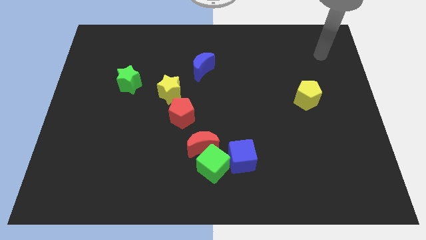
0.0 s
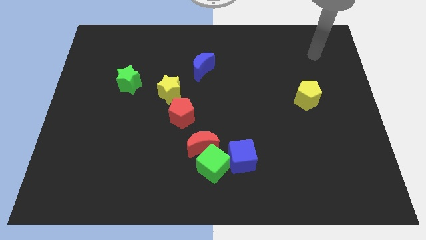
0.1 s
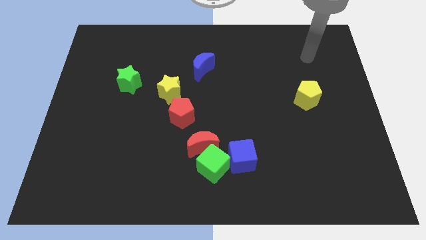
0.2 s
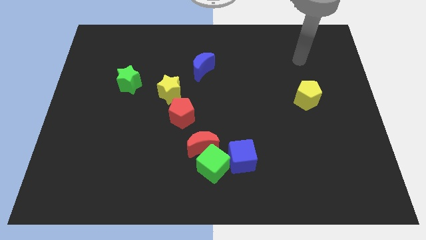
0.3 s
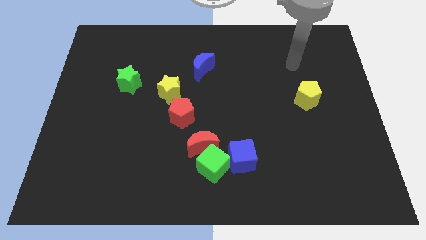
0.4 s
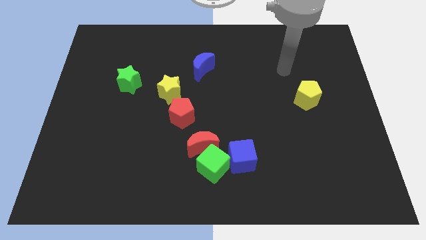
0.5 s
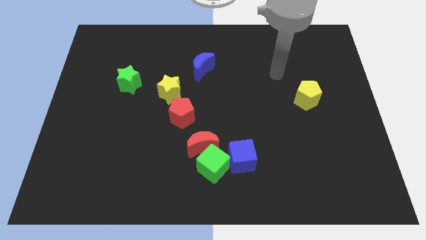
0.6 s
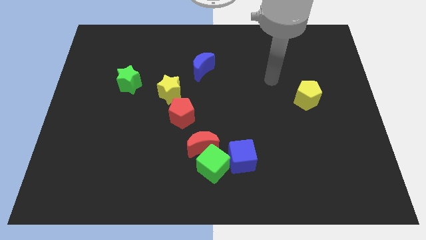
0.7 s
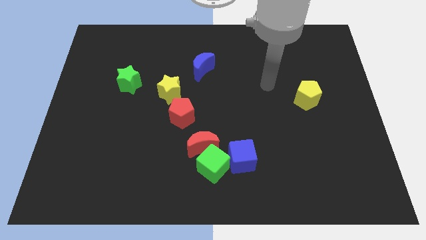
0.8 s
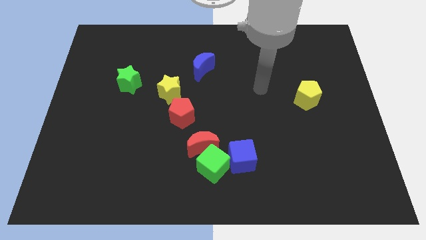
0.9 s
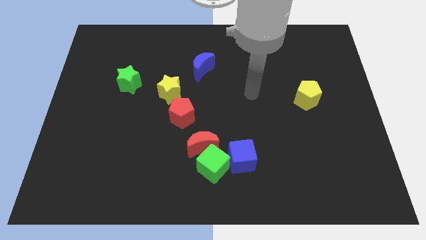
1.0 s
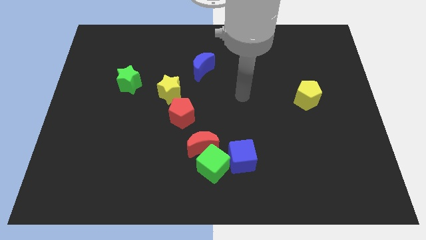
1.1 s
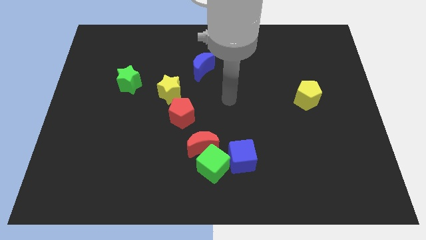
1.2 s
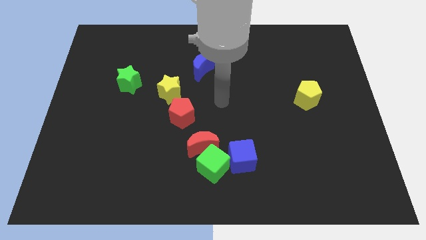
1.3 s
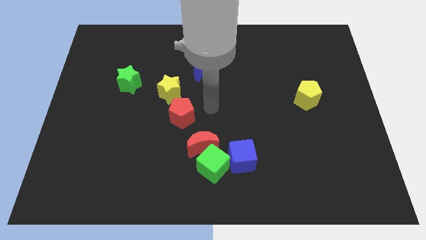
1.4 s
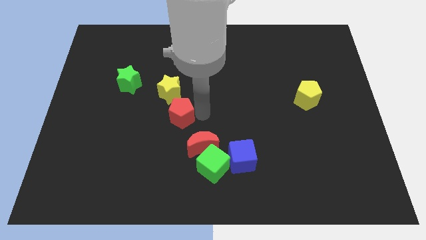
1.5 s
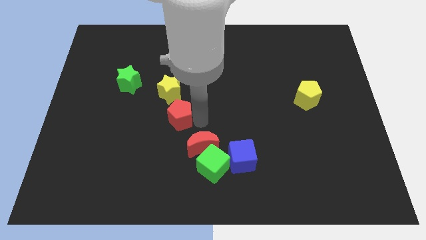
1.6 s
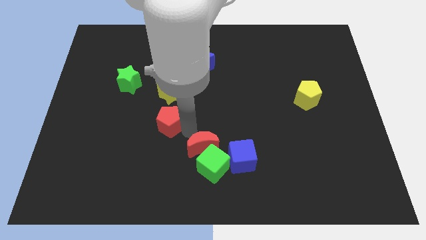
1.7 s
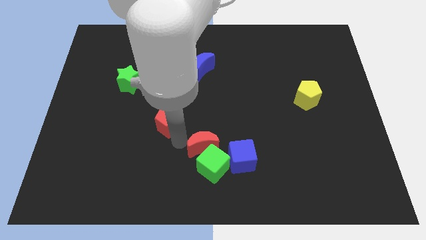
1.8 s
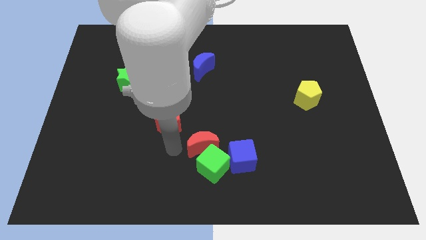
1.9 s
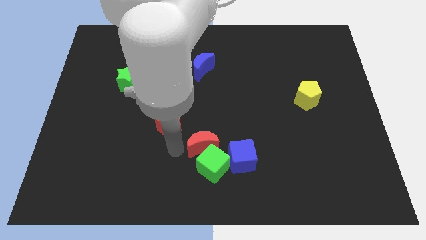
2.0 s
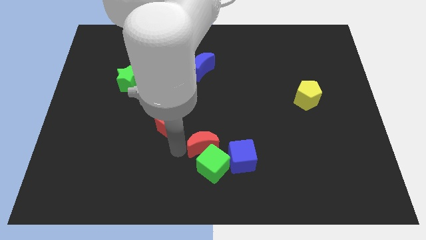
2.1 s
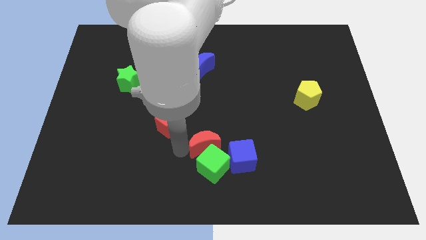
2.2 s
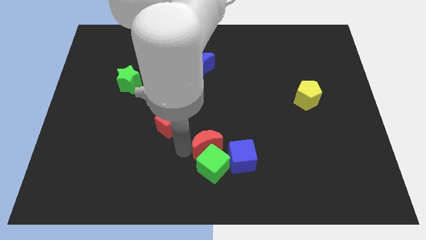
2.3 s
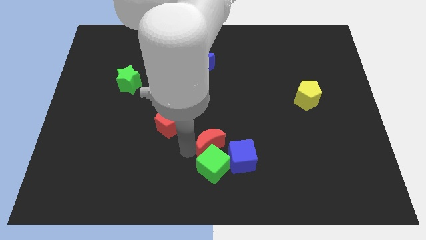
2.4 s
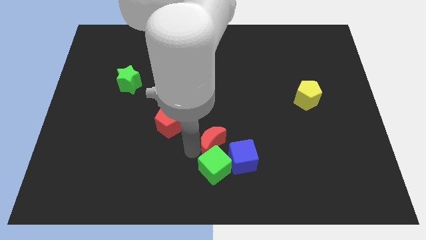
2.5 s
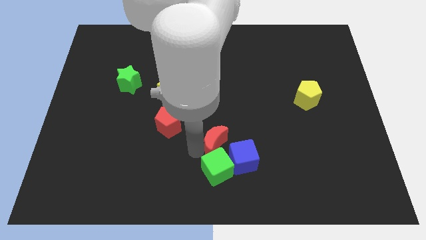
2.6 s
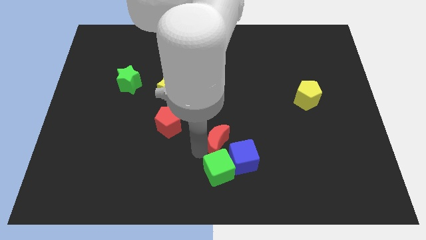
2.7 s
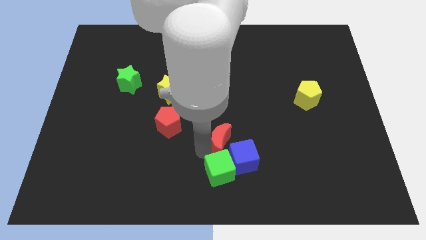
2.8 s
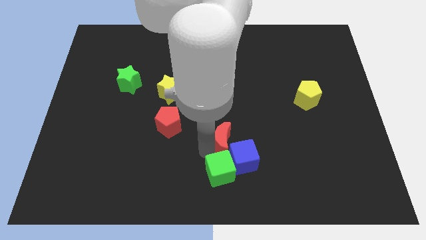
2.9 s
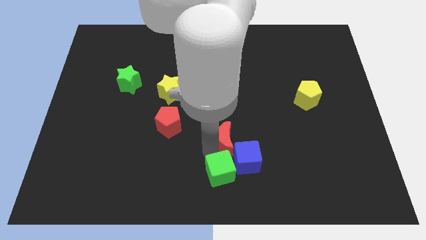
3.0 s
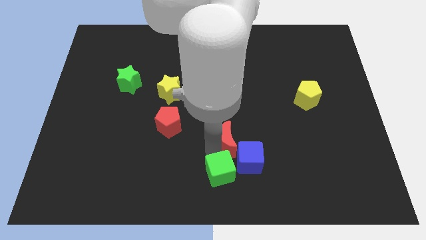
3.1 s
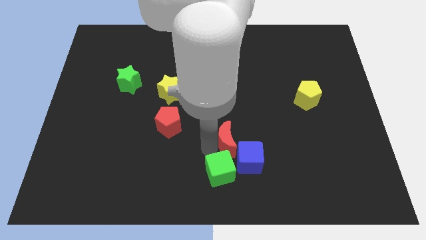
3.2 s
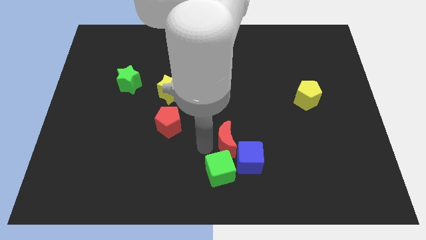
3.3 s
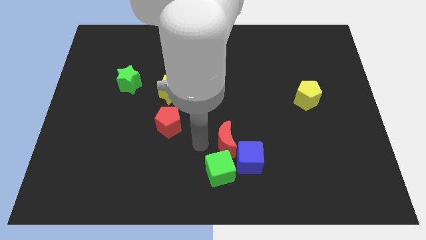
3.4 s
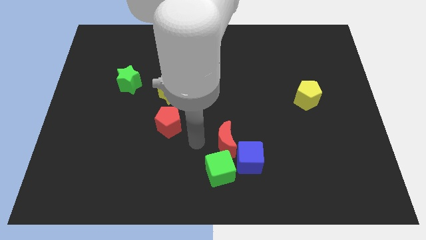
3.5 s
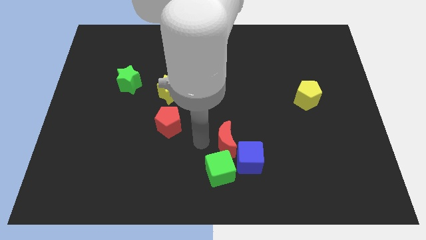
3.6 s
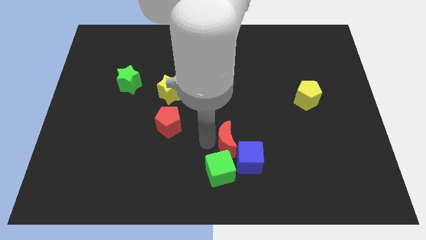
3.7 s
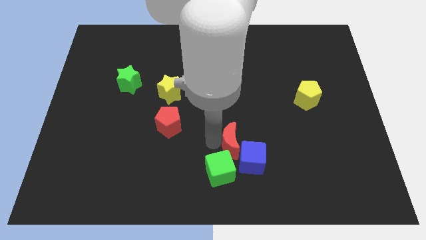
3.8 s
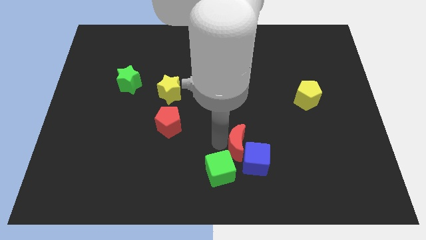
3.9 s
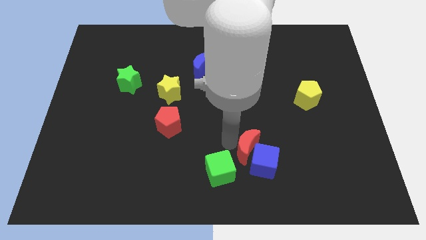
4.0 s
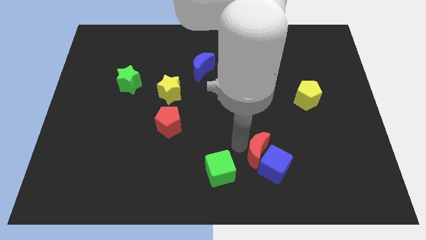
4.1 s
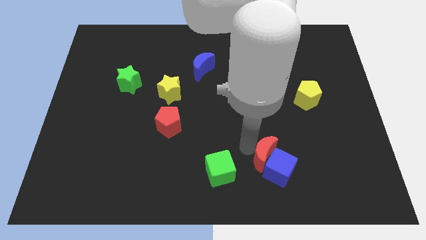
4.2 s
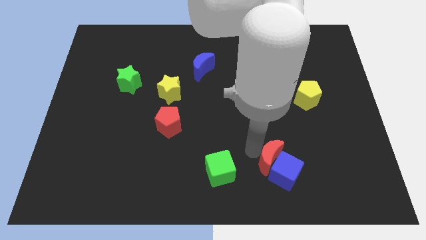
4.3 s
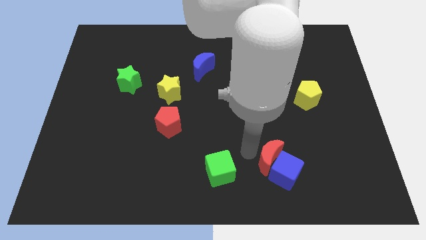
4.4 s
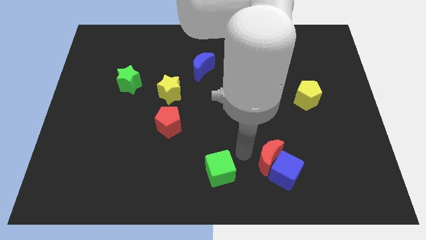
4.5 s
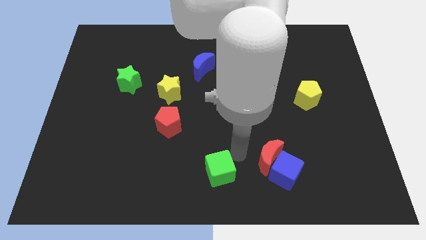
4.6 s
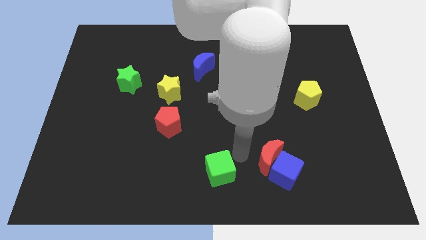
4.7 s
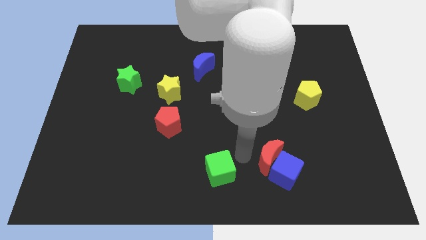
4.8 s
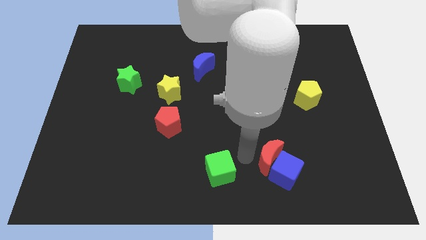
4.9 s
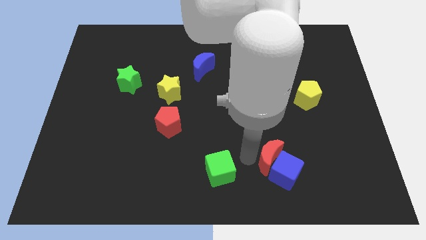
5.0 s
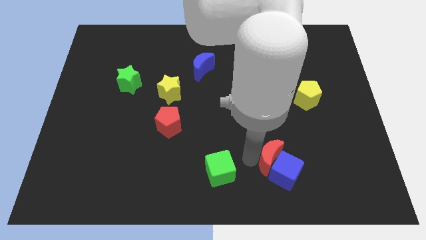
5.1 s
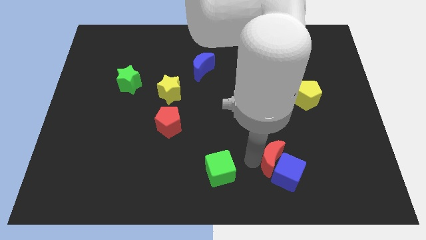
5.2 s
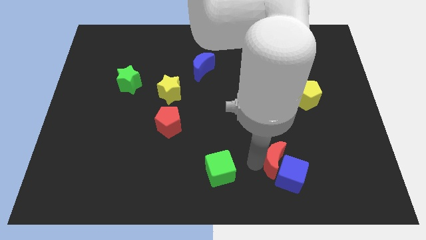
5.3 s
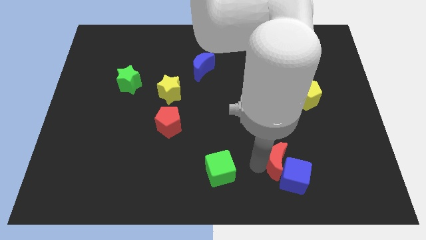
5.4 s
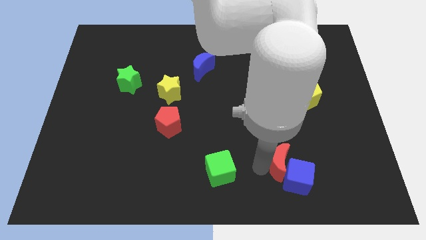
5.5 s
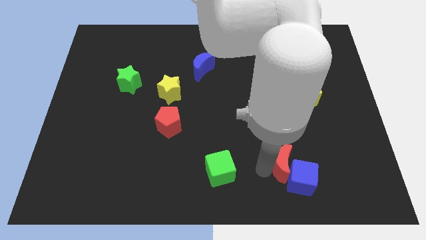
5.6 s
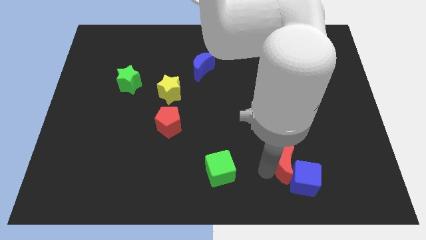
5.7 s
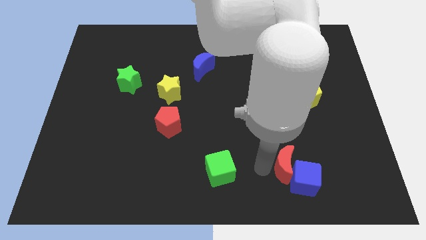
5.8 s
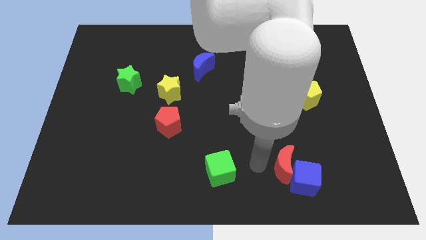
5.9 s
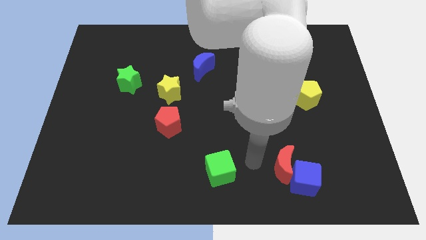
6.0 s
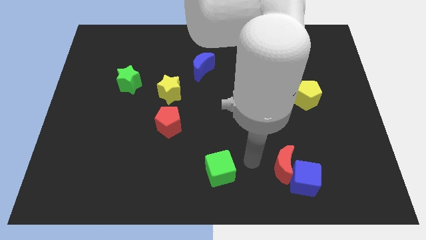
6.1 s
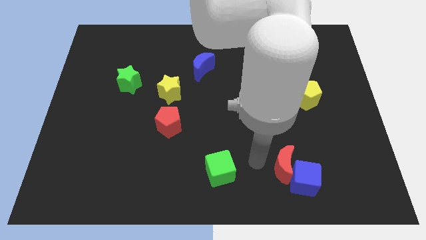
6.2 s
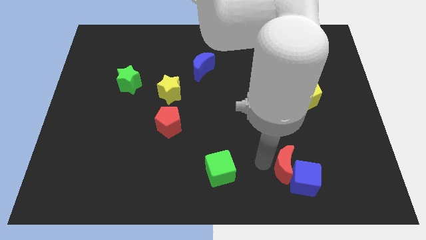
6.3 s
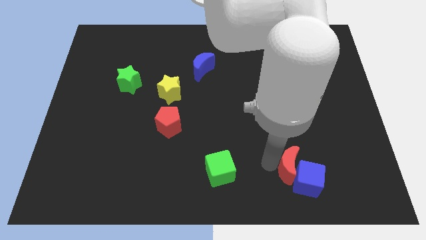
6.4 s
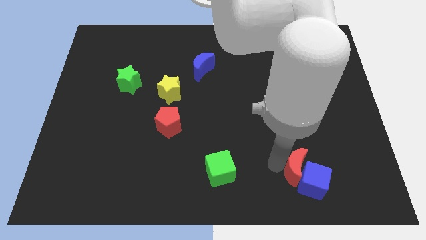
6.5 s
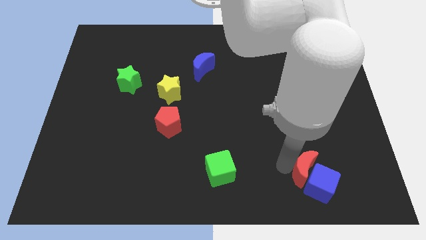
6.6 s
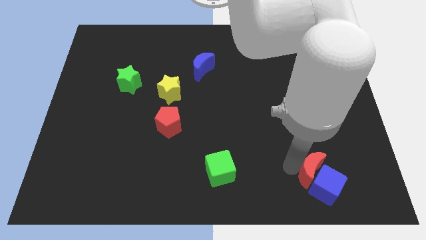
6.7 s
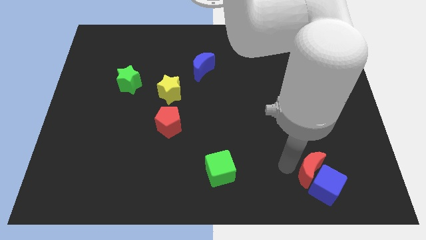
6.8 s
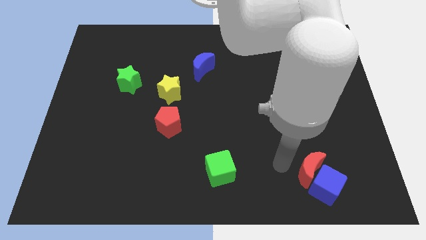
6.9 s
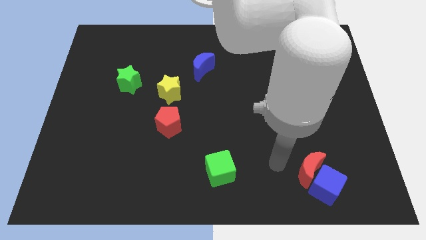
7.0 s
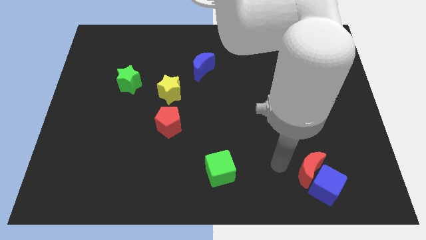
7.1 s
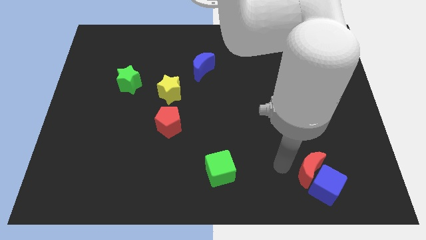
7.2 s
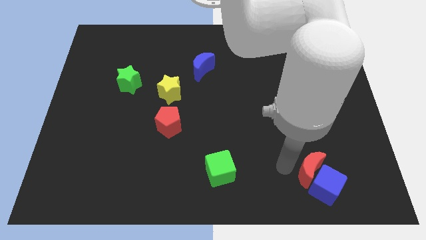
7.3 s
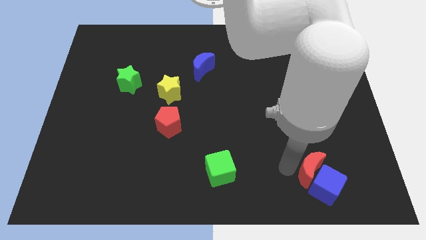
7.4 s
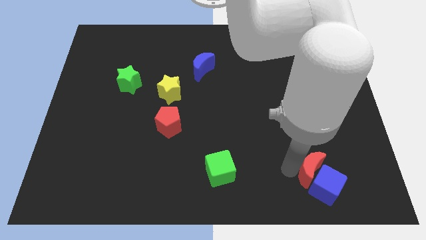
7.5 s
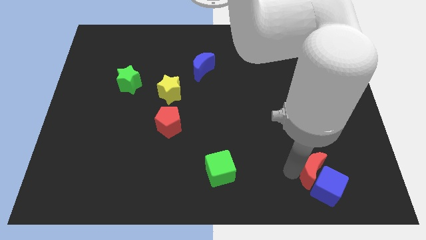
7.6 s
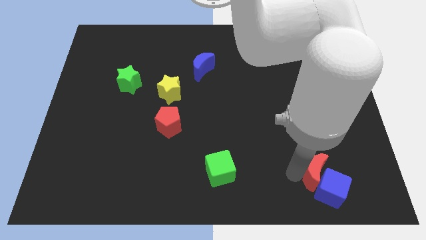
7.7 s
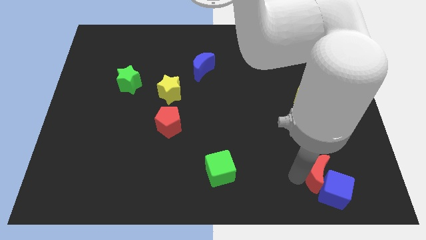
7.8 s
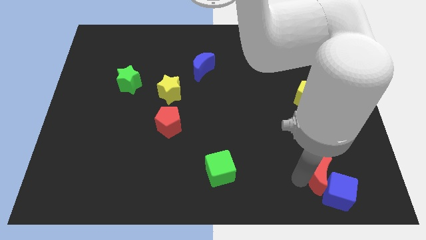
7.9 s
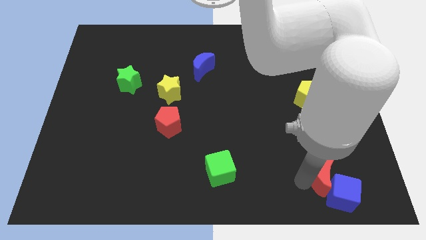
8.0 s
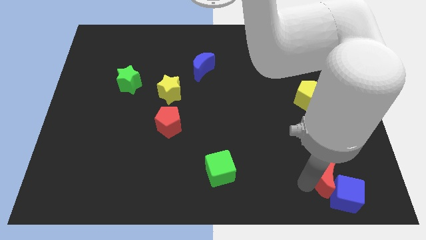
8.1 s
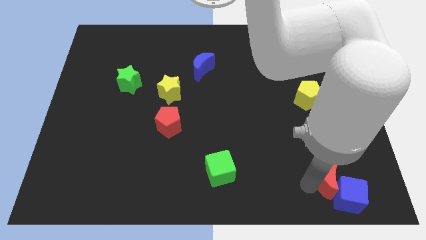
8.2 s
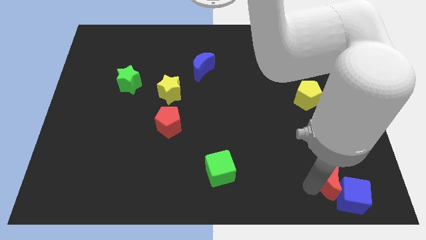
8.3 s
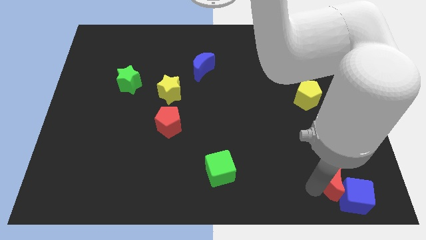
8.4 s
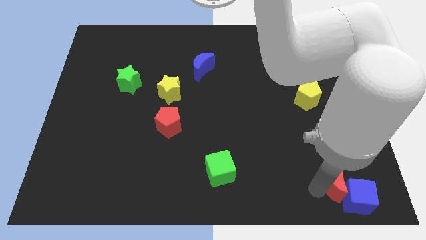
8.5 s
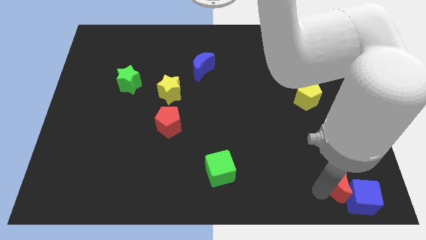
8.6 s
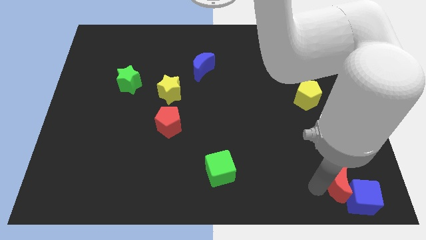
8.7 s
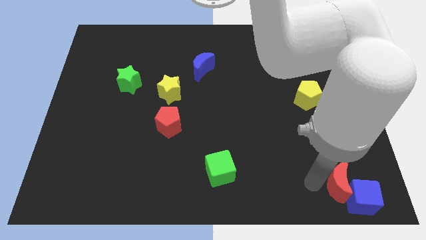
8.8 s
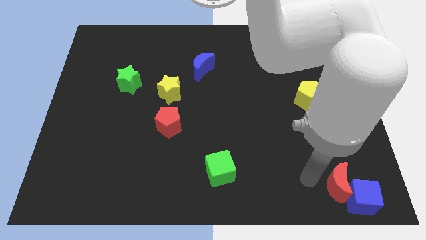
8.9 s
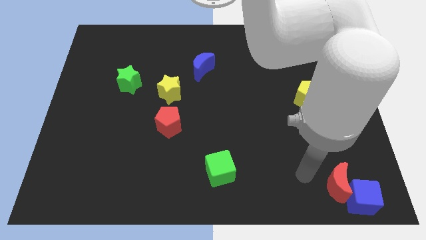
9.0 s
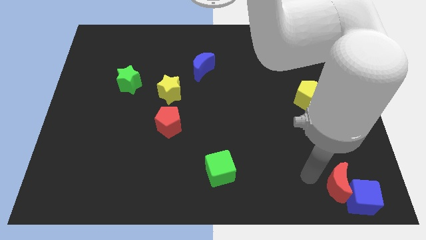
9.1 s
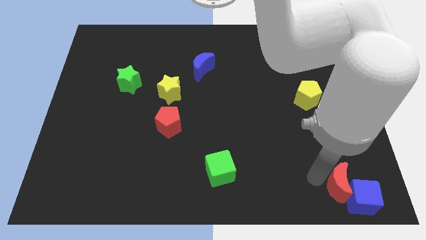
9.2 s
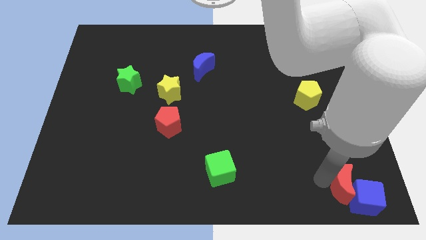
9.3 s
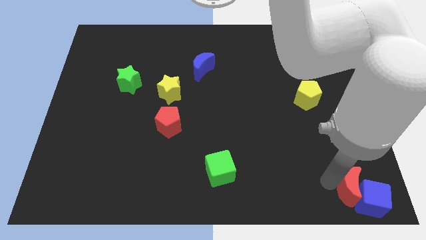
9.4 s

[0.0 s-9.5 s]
push the red moon to the bottom right
